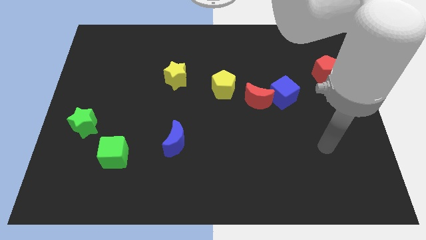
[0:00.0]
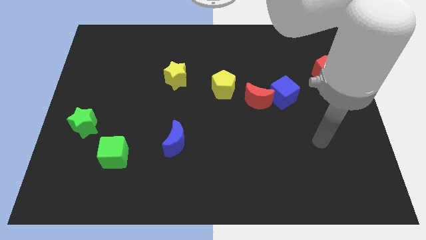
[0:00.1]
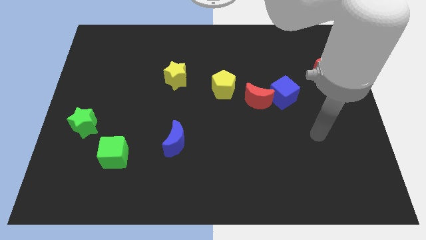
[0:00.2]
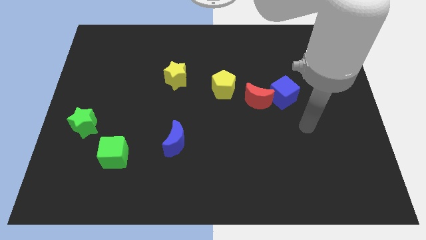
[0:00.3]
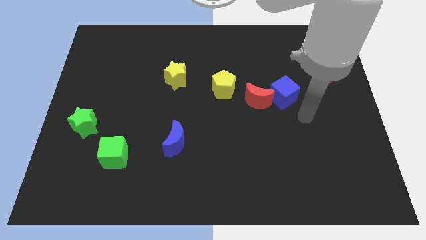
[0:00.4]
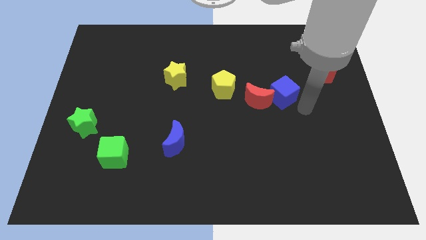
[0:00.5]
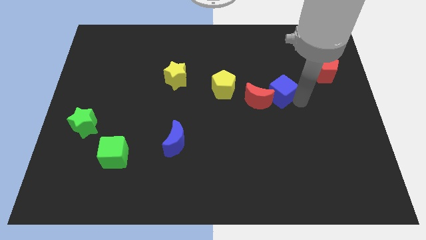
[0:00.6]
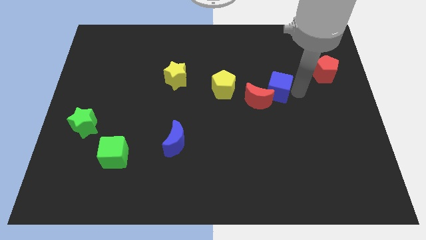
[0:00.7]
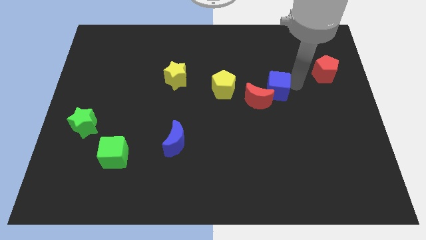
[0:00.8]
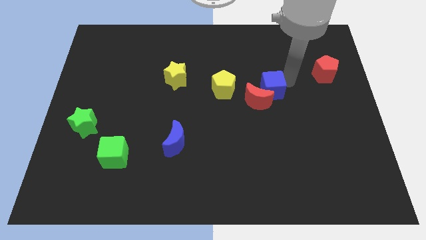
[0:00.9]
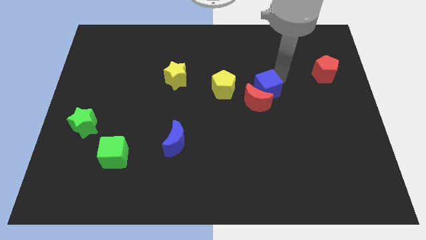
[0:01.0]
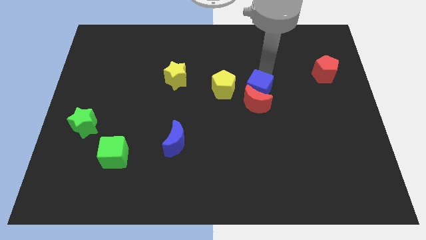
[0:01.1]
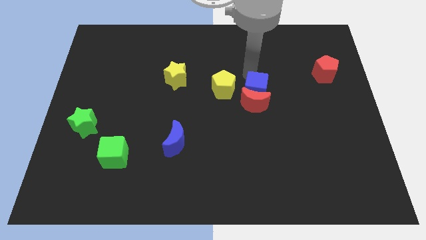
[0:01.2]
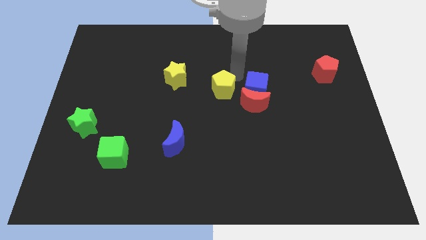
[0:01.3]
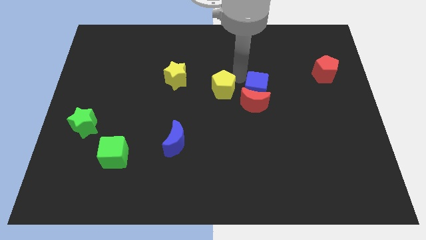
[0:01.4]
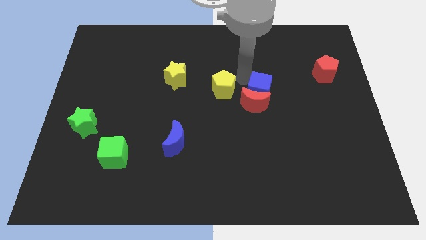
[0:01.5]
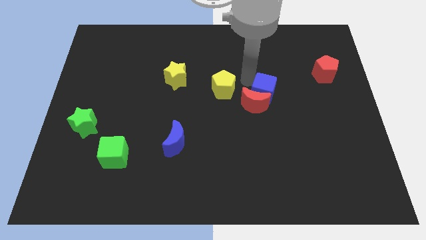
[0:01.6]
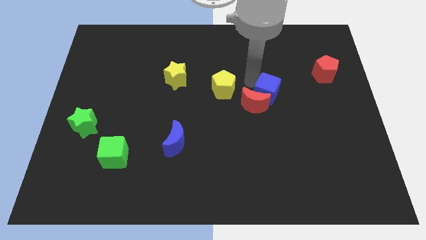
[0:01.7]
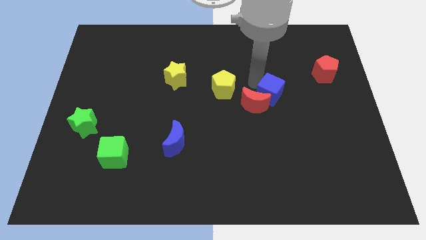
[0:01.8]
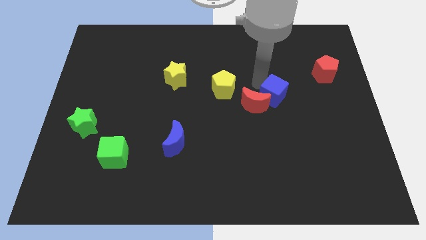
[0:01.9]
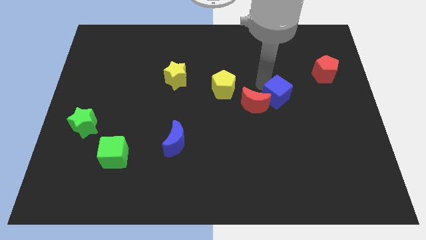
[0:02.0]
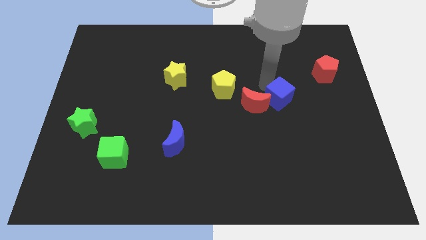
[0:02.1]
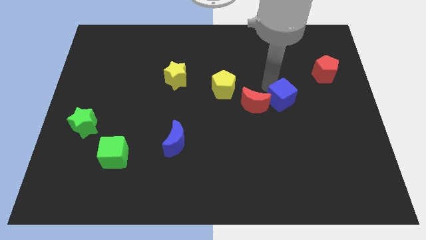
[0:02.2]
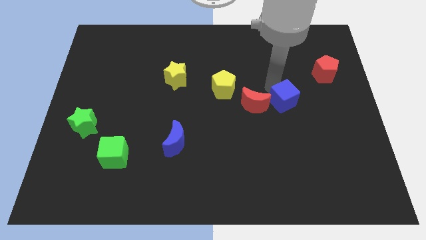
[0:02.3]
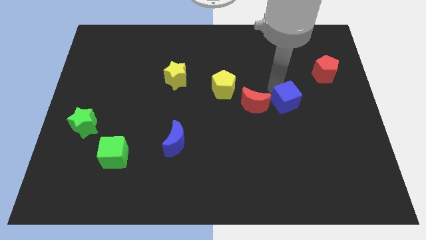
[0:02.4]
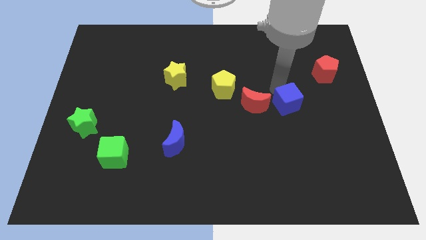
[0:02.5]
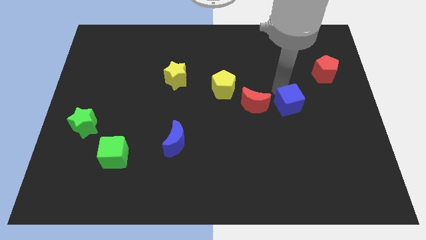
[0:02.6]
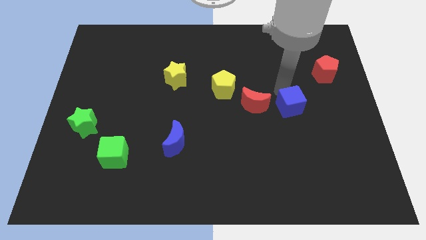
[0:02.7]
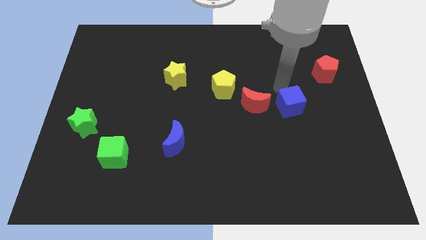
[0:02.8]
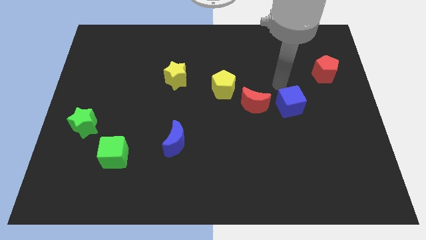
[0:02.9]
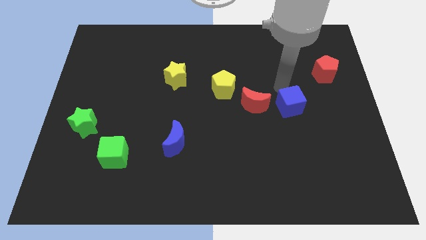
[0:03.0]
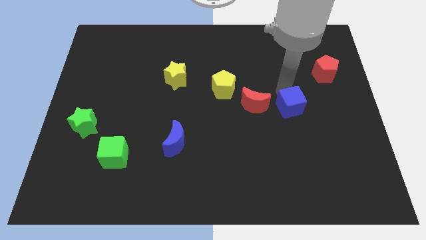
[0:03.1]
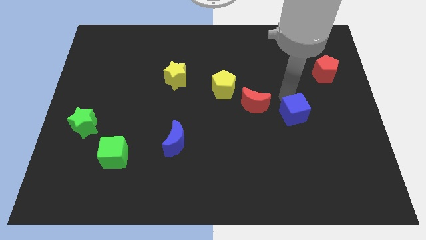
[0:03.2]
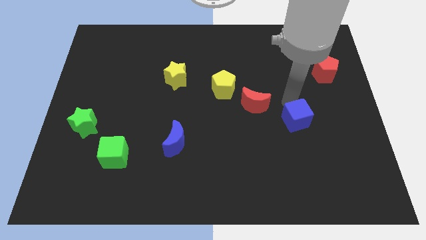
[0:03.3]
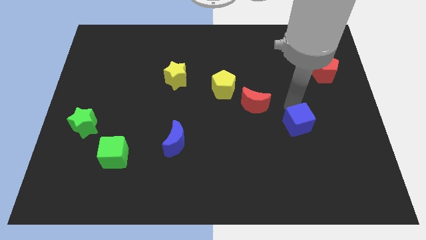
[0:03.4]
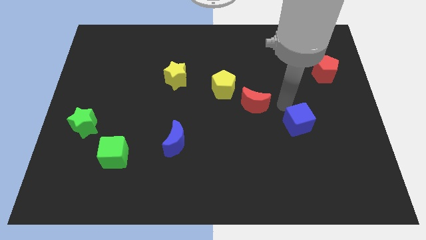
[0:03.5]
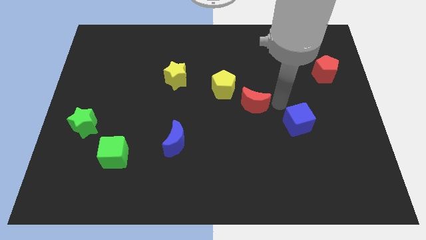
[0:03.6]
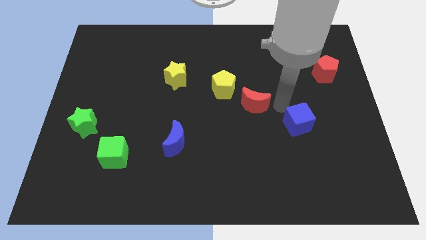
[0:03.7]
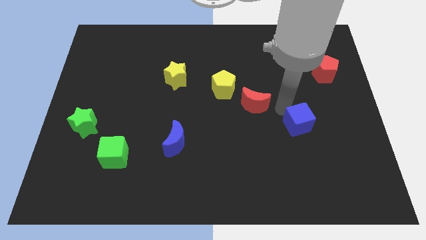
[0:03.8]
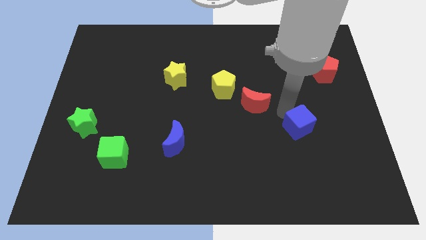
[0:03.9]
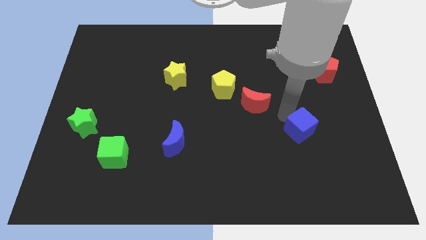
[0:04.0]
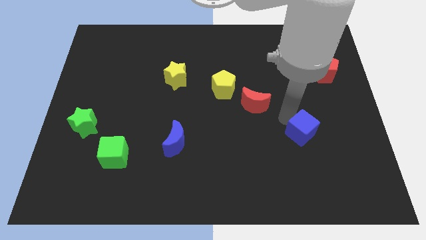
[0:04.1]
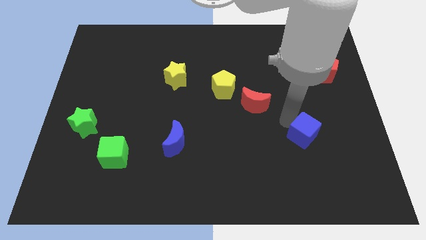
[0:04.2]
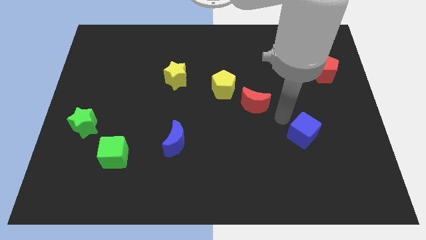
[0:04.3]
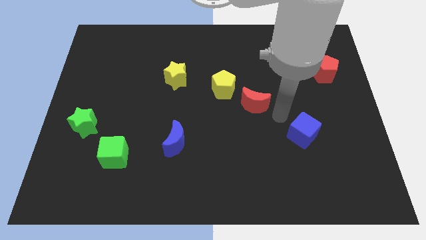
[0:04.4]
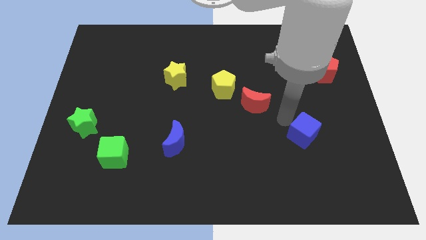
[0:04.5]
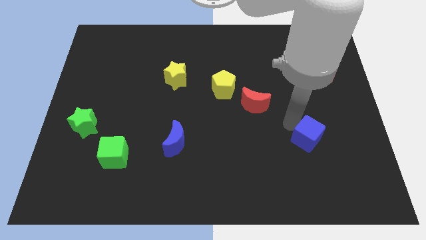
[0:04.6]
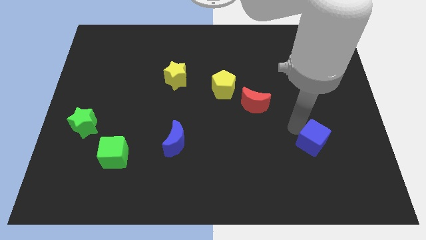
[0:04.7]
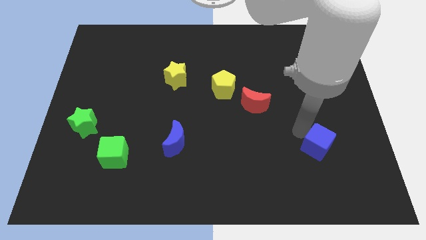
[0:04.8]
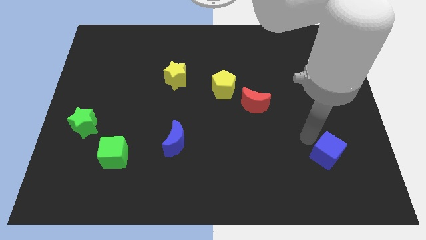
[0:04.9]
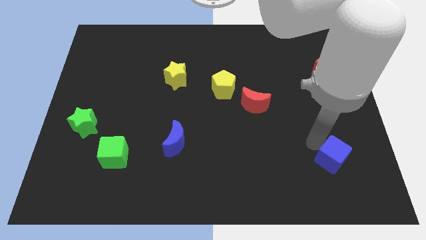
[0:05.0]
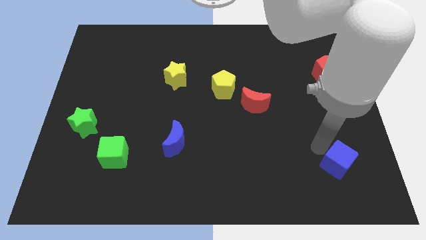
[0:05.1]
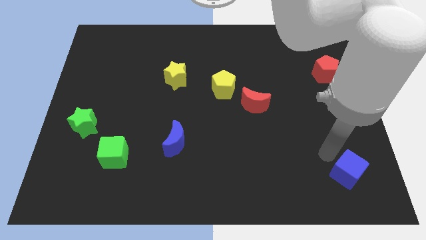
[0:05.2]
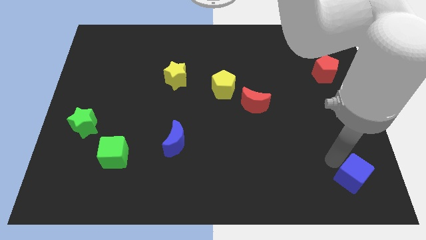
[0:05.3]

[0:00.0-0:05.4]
move the blue cube to the bottom right of the board
